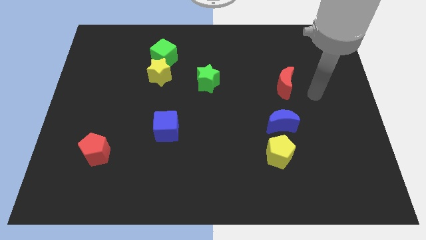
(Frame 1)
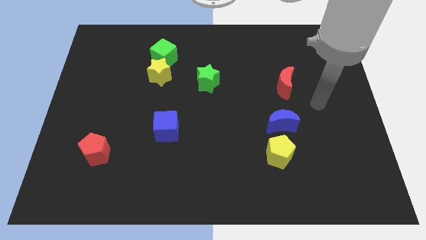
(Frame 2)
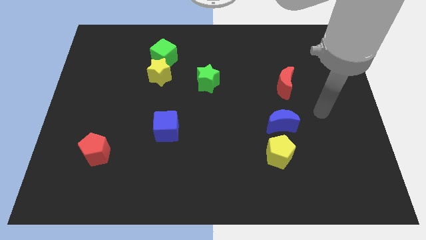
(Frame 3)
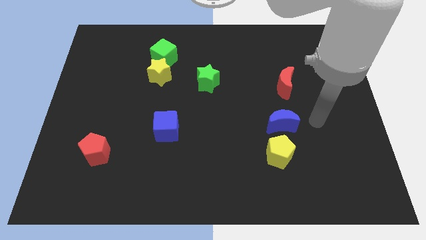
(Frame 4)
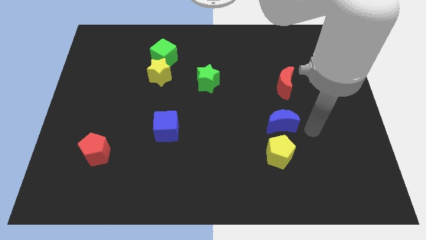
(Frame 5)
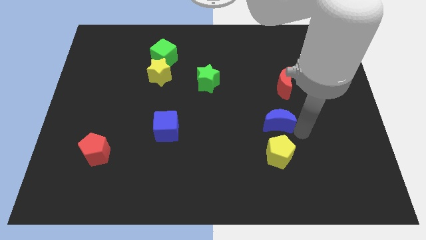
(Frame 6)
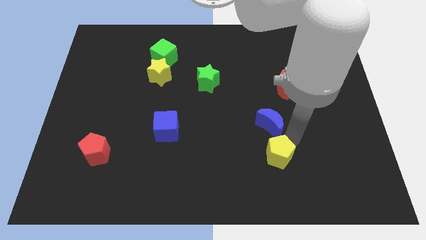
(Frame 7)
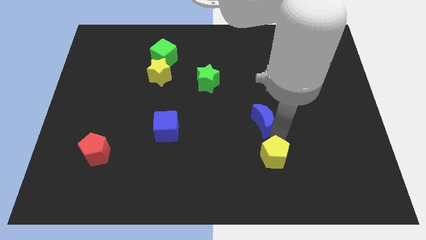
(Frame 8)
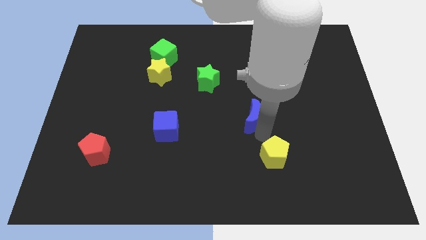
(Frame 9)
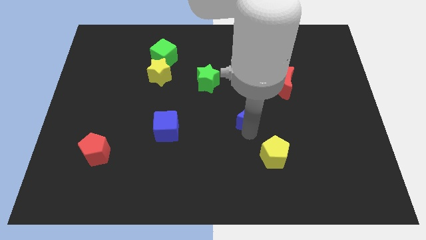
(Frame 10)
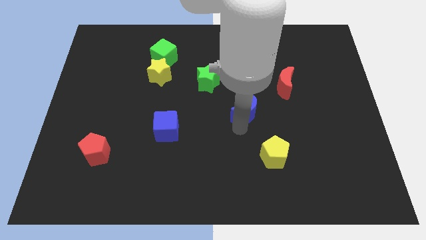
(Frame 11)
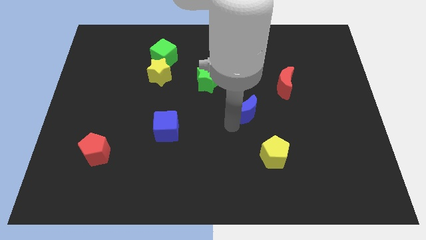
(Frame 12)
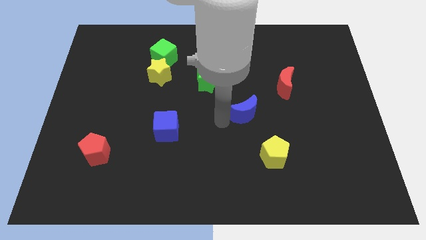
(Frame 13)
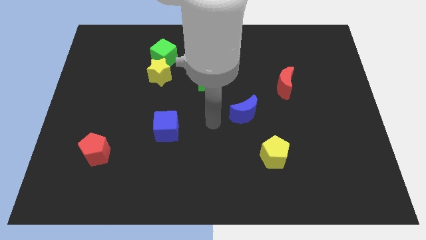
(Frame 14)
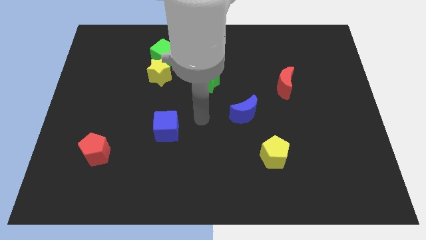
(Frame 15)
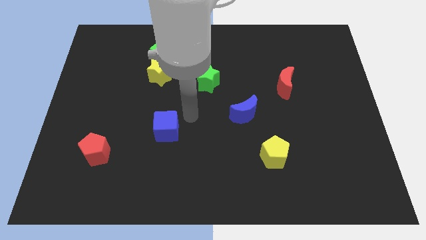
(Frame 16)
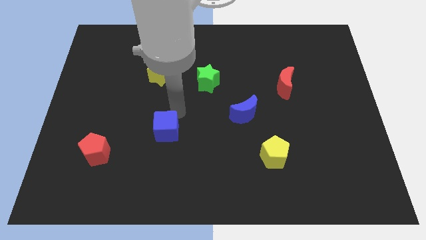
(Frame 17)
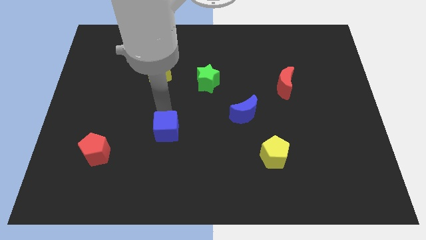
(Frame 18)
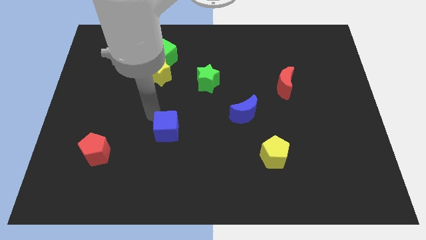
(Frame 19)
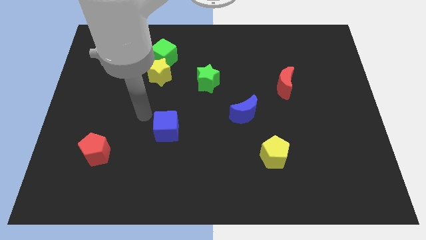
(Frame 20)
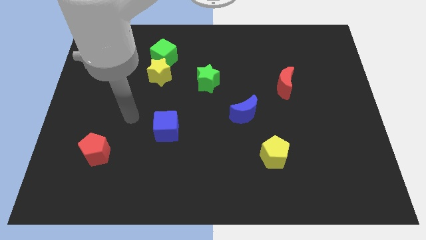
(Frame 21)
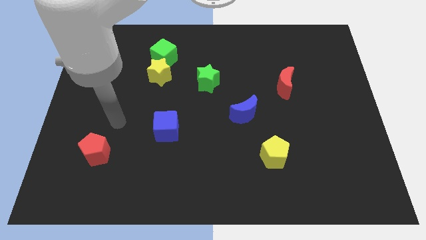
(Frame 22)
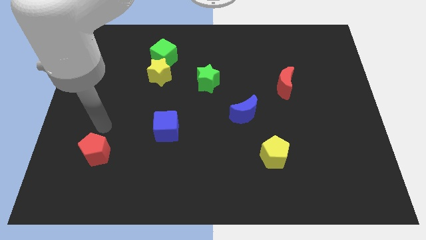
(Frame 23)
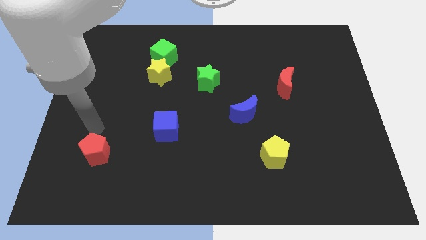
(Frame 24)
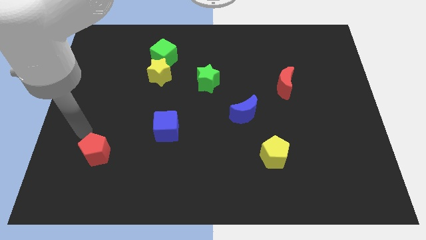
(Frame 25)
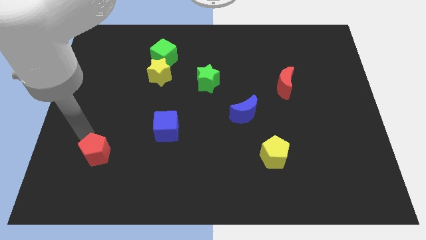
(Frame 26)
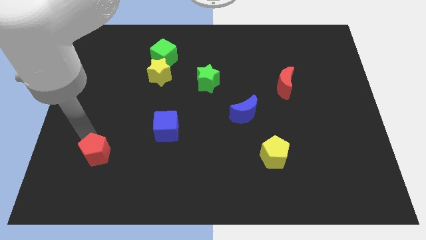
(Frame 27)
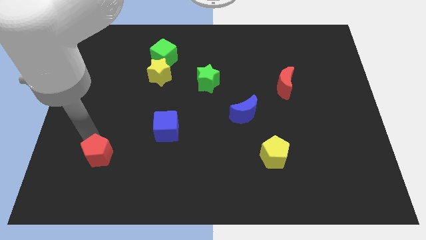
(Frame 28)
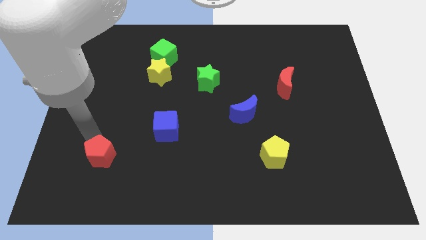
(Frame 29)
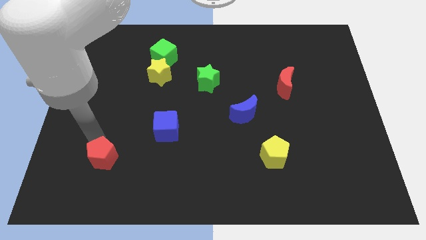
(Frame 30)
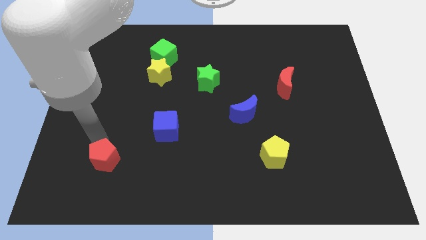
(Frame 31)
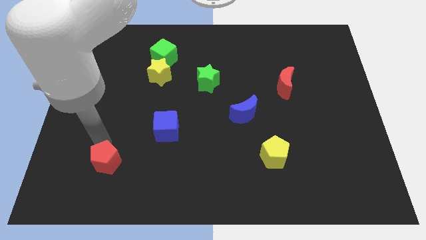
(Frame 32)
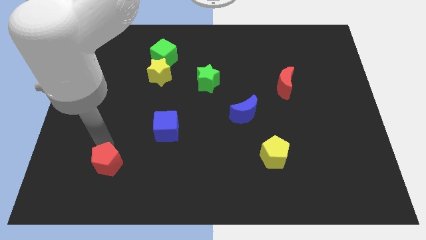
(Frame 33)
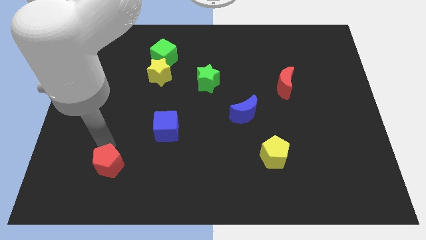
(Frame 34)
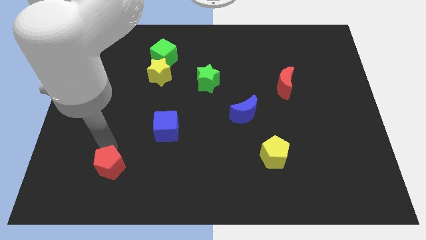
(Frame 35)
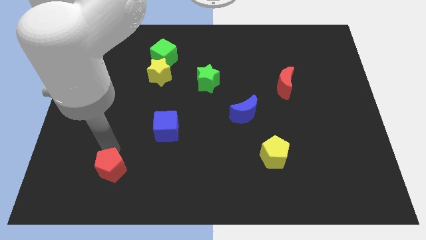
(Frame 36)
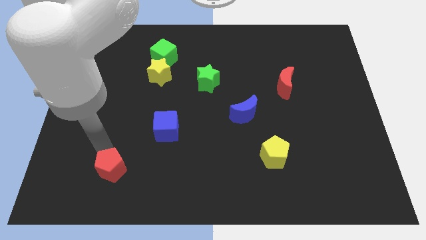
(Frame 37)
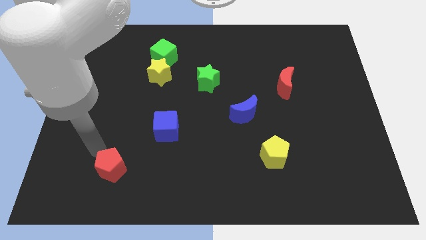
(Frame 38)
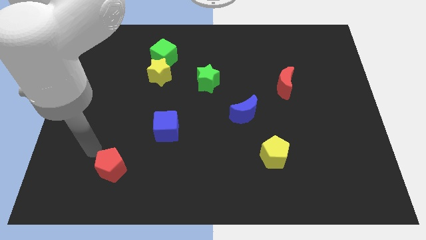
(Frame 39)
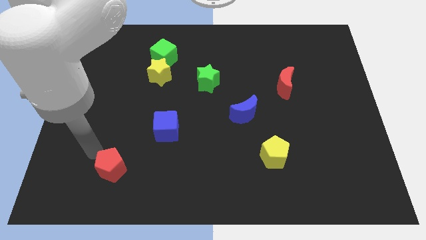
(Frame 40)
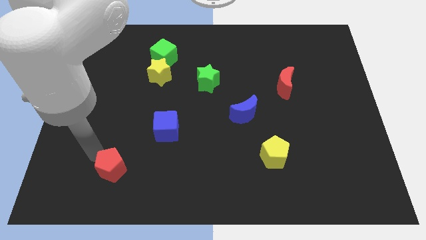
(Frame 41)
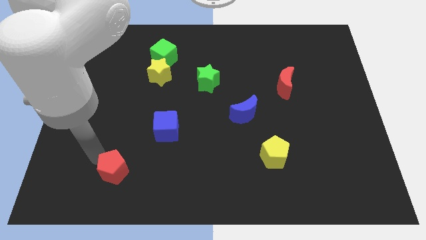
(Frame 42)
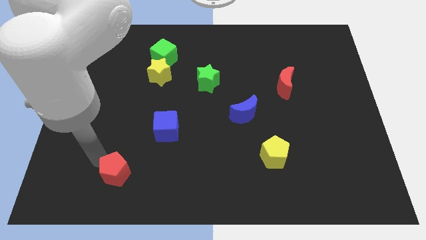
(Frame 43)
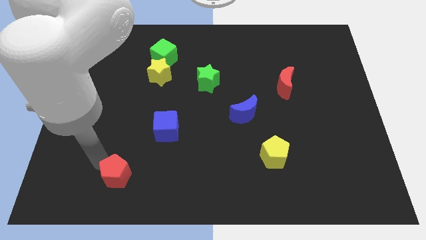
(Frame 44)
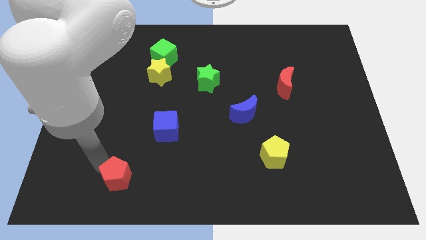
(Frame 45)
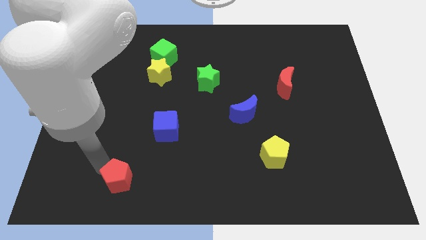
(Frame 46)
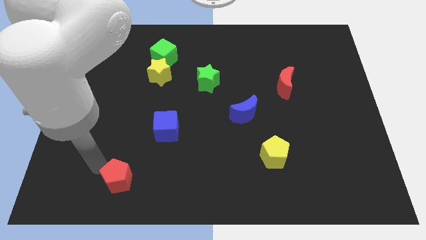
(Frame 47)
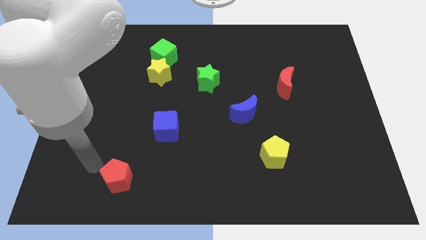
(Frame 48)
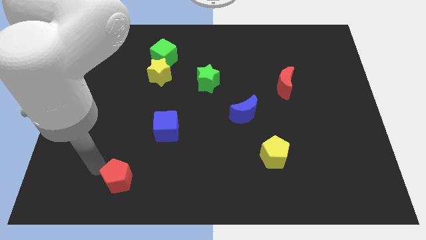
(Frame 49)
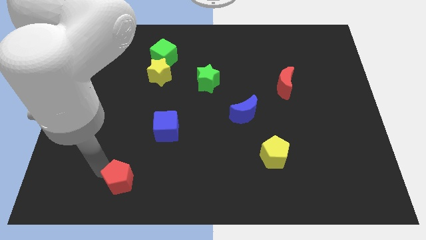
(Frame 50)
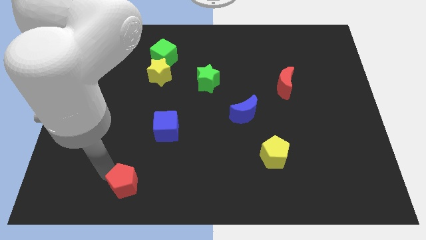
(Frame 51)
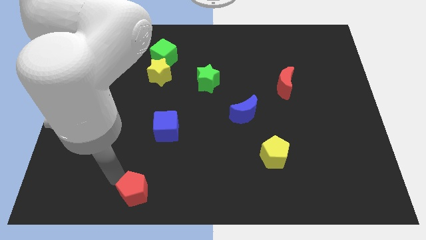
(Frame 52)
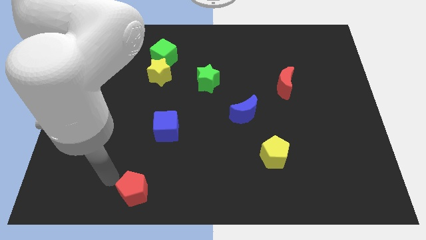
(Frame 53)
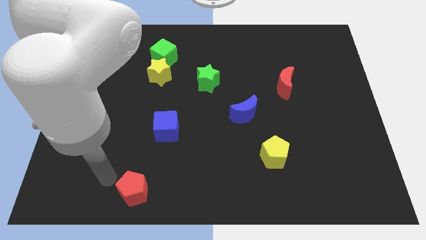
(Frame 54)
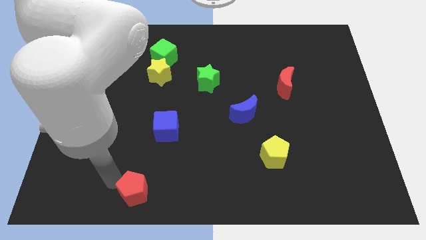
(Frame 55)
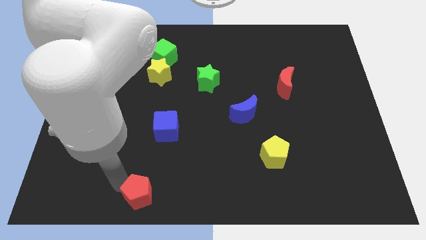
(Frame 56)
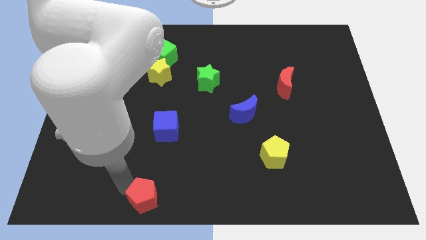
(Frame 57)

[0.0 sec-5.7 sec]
put the red pentagon to the bottom
